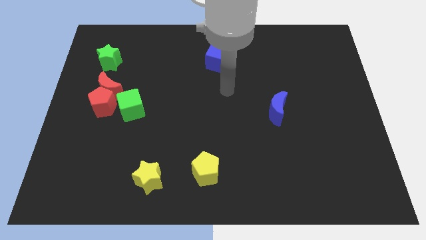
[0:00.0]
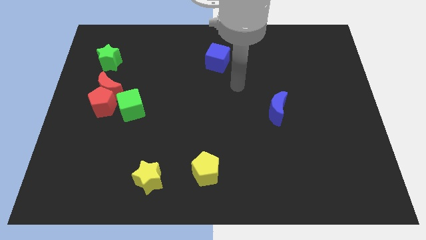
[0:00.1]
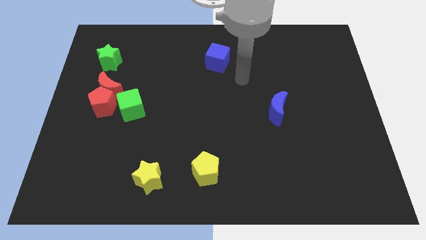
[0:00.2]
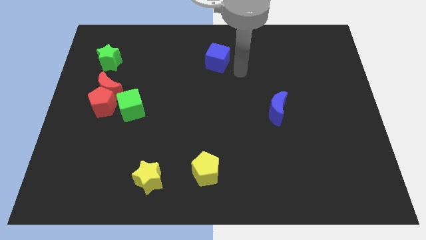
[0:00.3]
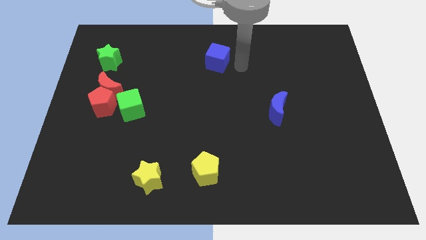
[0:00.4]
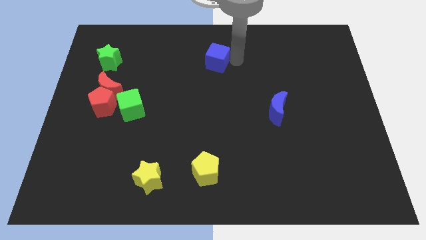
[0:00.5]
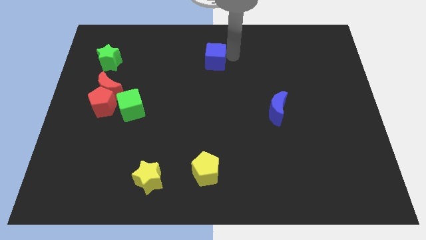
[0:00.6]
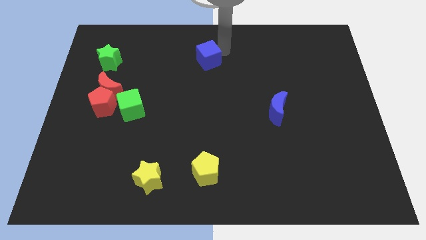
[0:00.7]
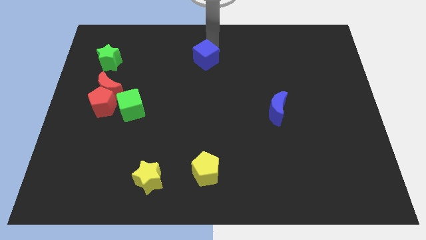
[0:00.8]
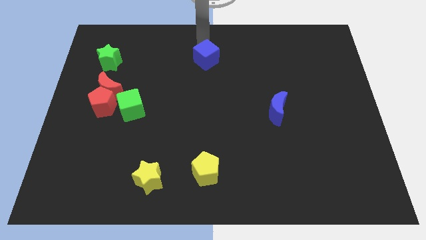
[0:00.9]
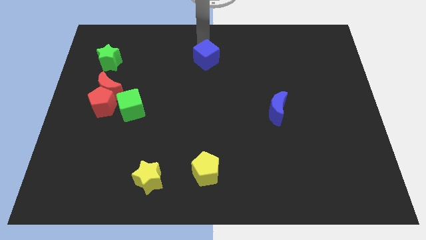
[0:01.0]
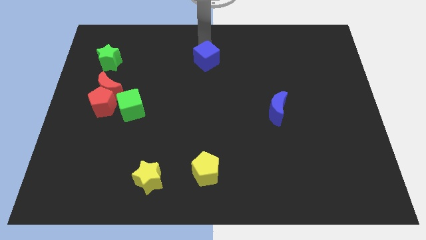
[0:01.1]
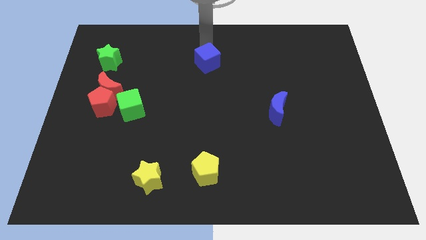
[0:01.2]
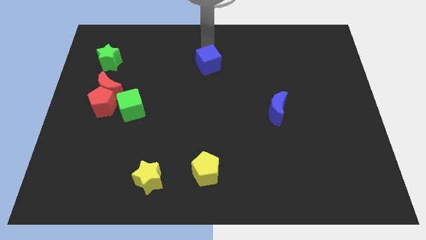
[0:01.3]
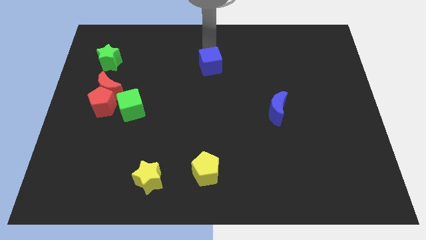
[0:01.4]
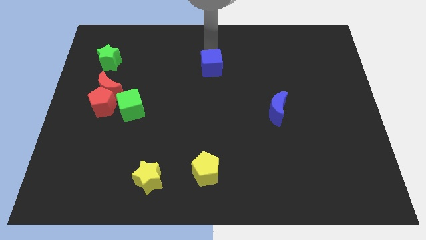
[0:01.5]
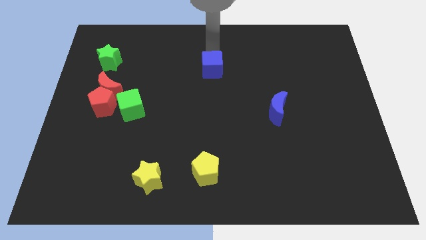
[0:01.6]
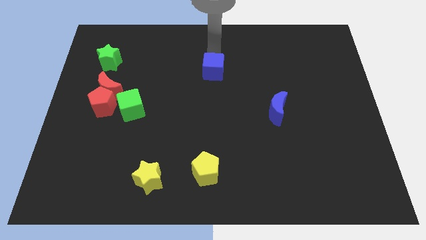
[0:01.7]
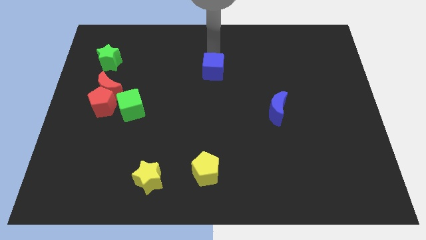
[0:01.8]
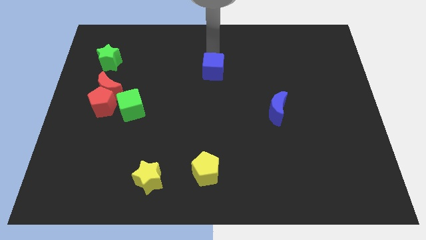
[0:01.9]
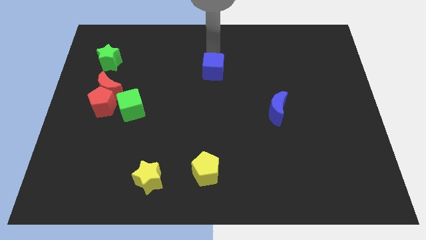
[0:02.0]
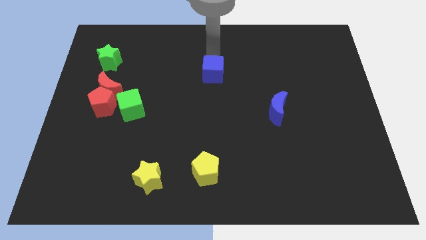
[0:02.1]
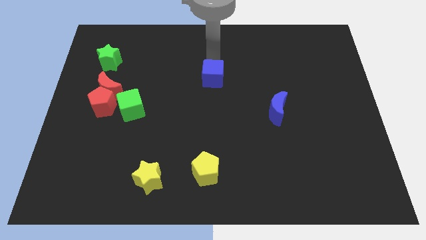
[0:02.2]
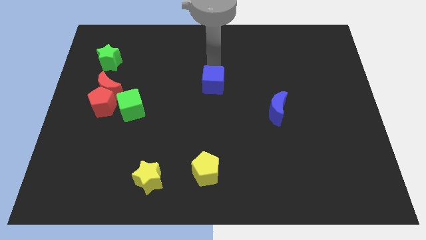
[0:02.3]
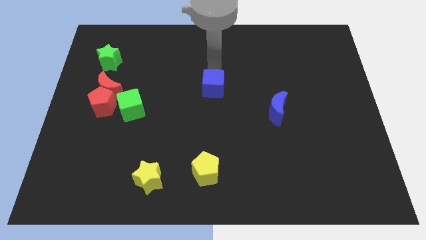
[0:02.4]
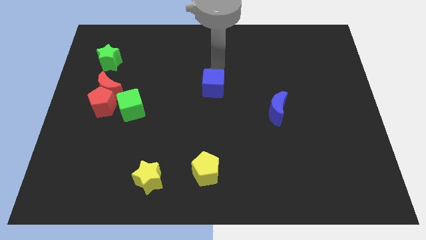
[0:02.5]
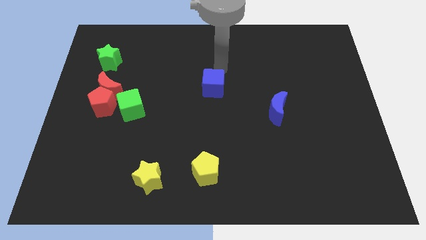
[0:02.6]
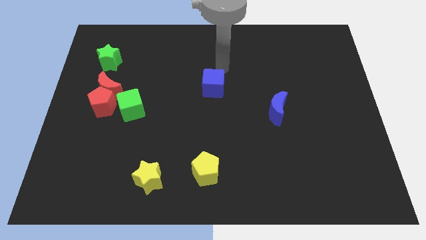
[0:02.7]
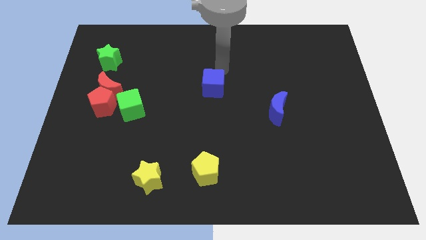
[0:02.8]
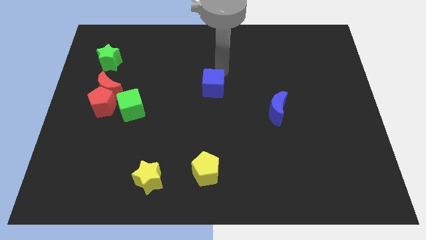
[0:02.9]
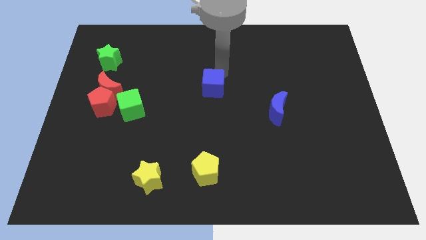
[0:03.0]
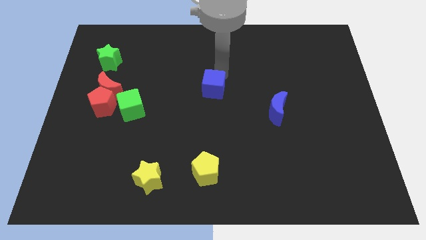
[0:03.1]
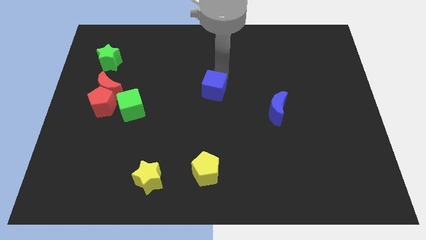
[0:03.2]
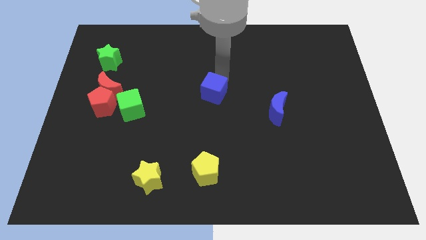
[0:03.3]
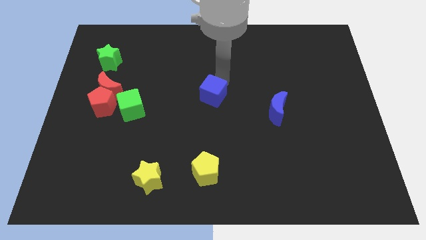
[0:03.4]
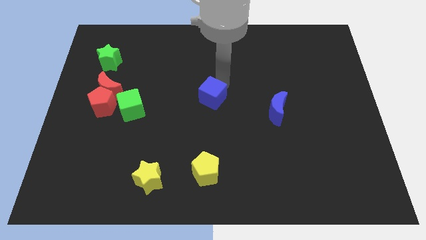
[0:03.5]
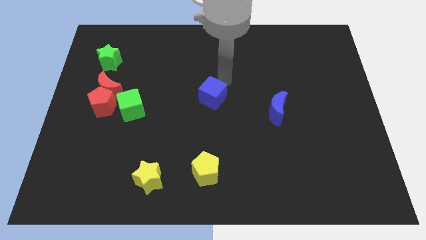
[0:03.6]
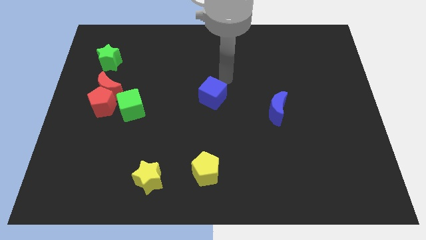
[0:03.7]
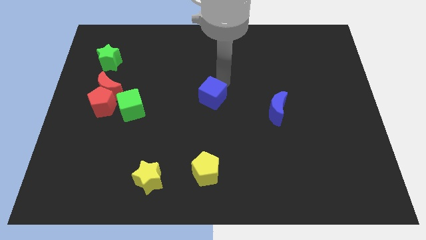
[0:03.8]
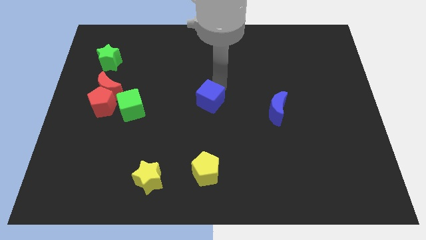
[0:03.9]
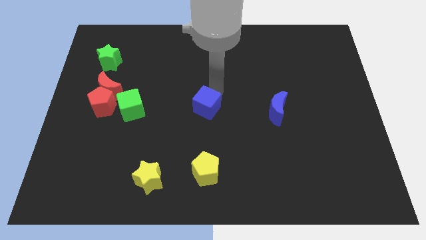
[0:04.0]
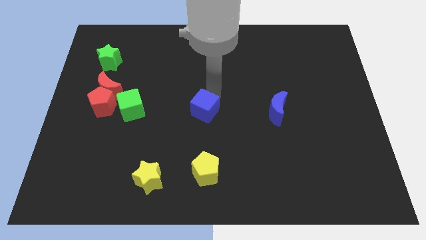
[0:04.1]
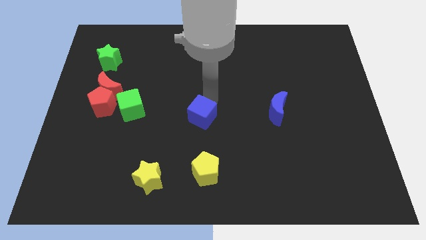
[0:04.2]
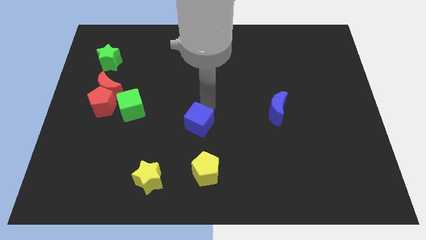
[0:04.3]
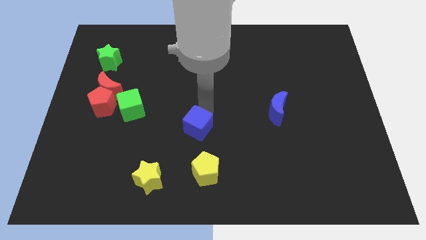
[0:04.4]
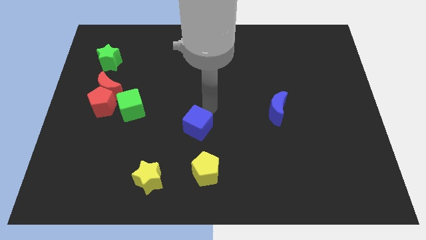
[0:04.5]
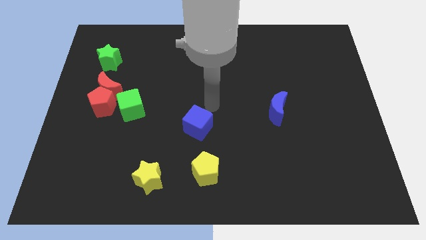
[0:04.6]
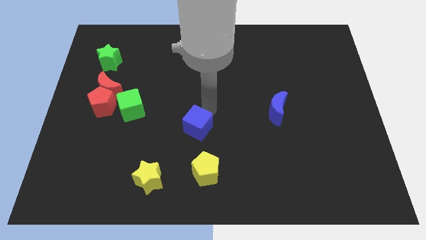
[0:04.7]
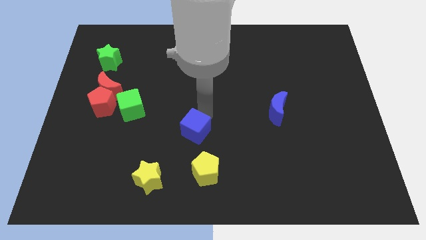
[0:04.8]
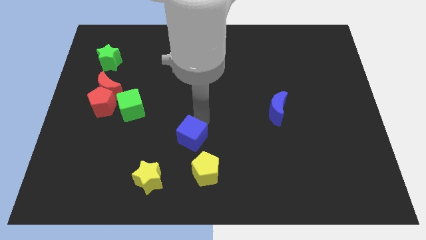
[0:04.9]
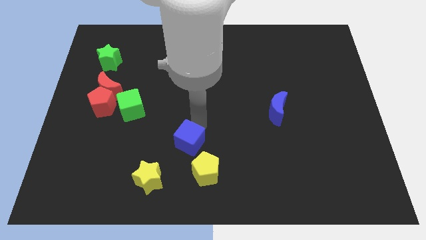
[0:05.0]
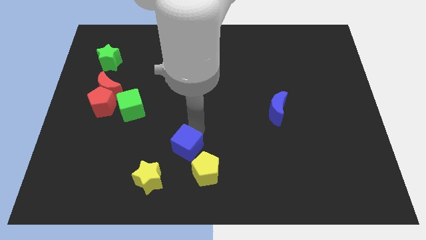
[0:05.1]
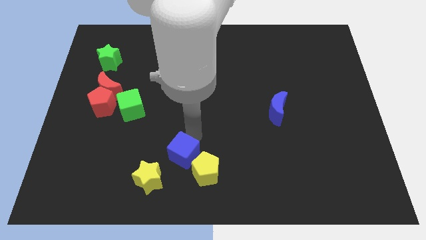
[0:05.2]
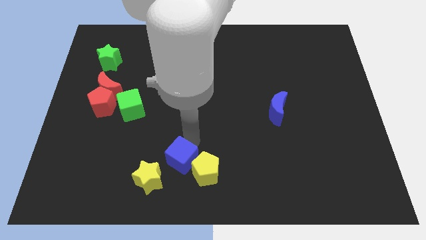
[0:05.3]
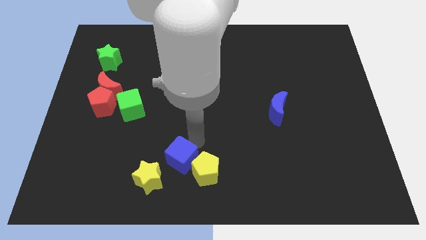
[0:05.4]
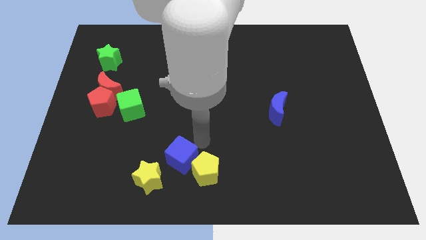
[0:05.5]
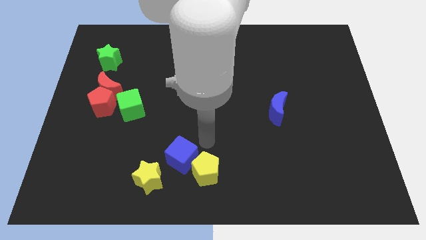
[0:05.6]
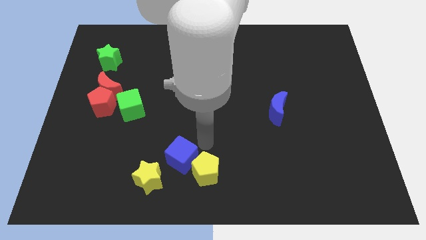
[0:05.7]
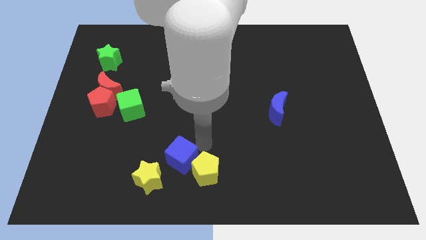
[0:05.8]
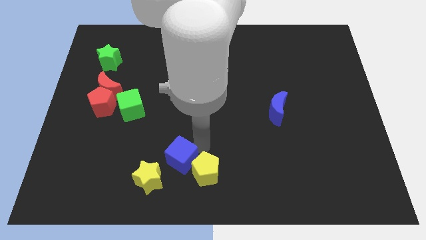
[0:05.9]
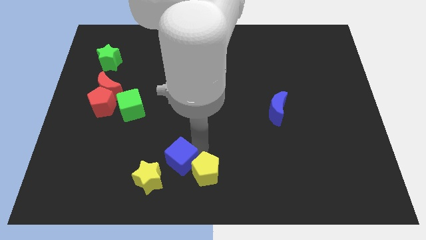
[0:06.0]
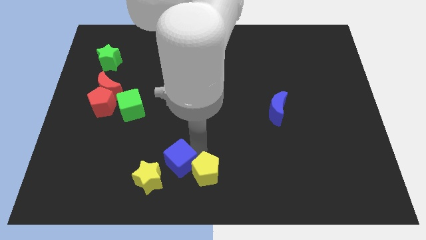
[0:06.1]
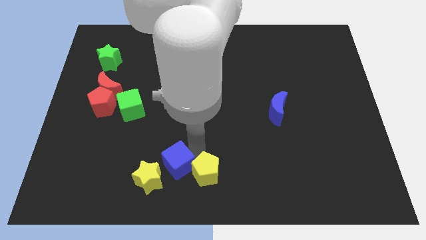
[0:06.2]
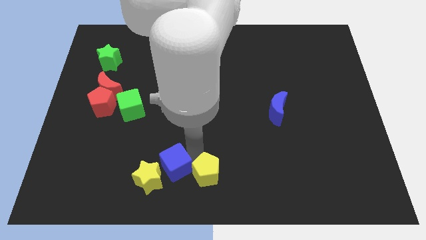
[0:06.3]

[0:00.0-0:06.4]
push the blue cube close to the yellow star
